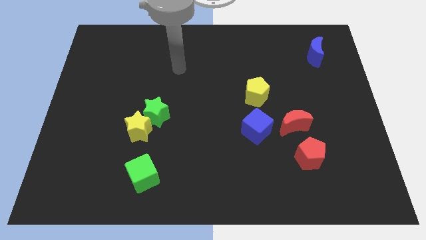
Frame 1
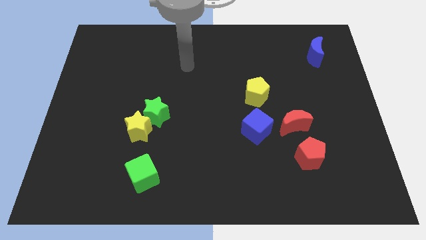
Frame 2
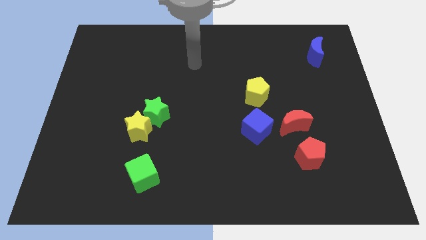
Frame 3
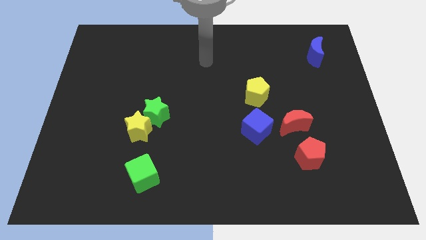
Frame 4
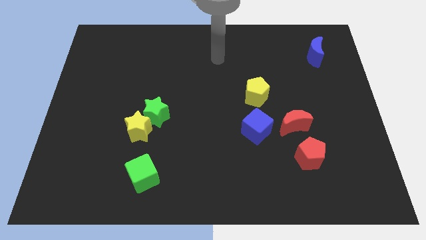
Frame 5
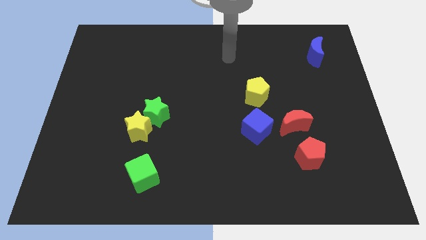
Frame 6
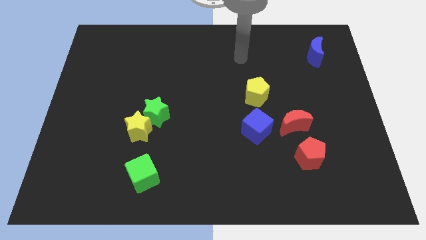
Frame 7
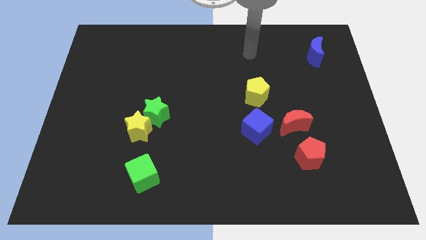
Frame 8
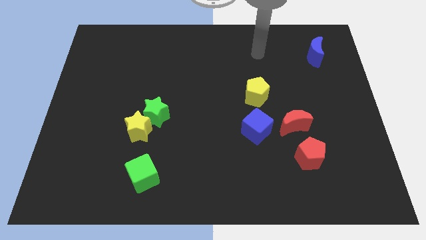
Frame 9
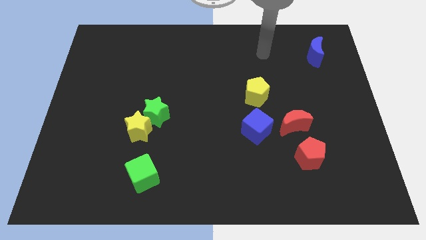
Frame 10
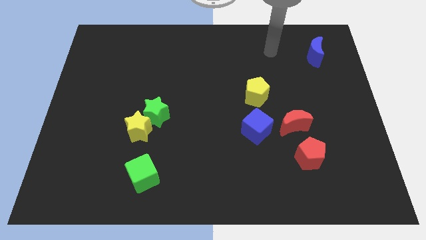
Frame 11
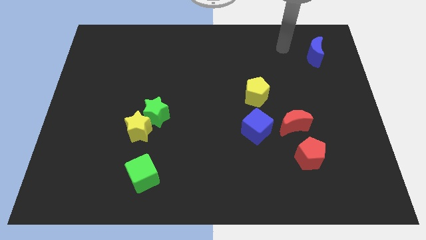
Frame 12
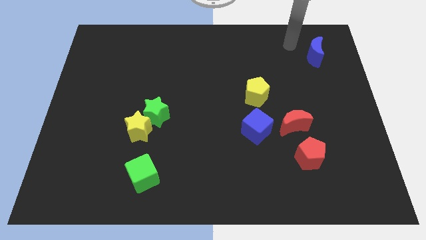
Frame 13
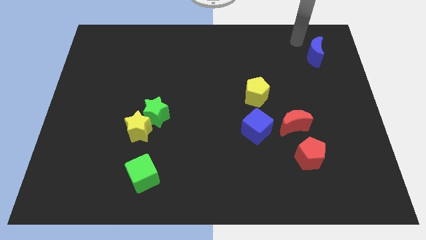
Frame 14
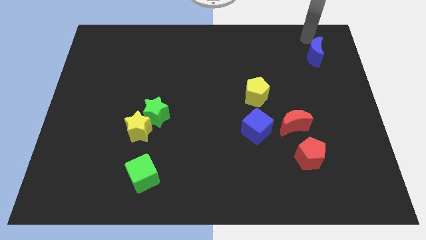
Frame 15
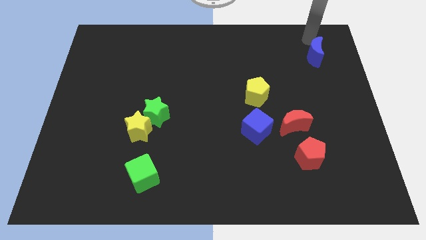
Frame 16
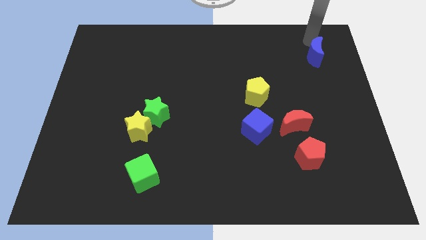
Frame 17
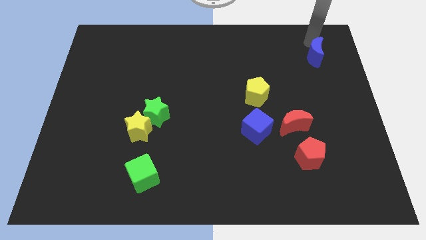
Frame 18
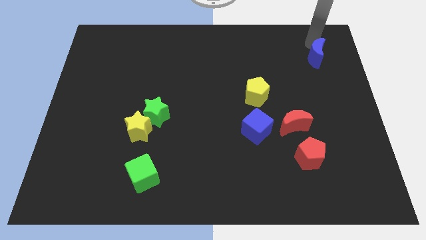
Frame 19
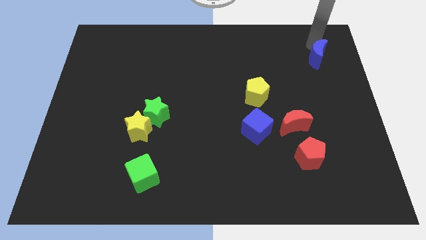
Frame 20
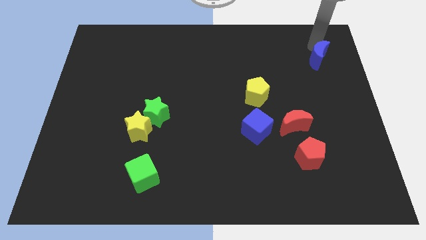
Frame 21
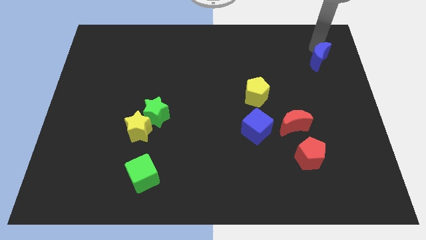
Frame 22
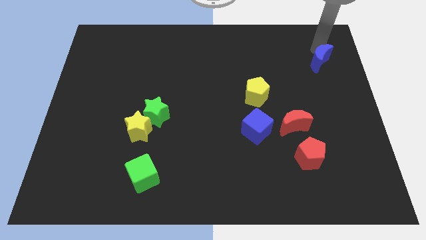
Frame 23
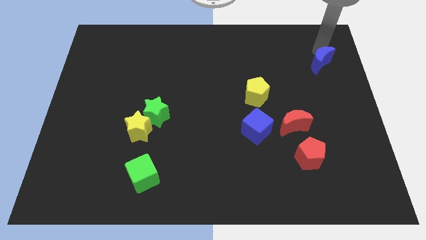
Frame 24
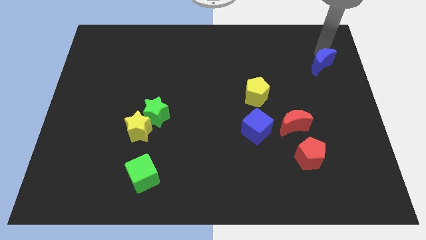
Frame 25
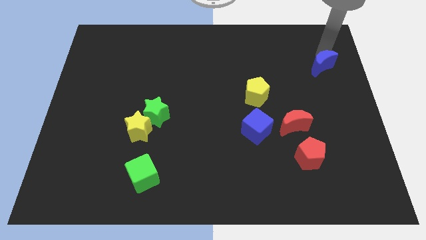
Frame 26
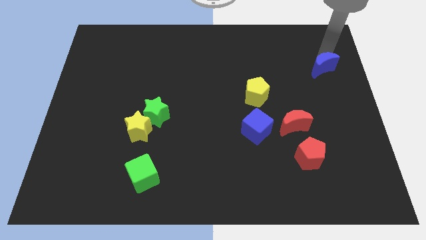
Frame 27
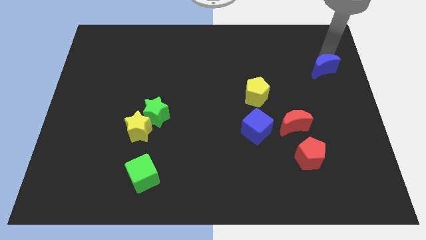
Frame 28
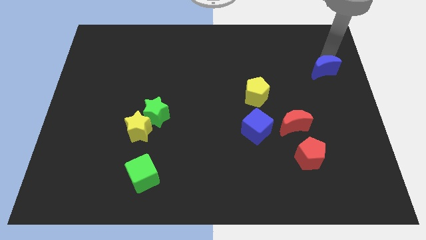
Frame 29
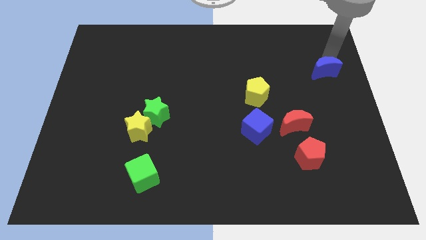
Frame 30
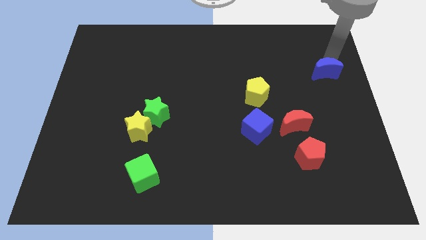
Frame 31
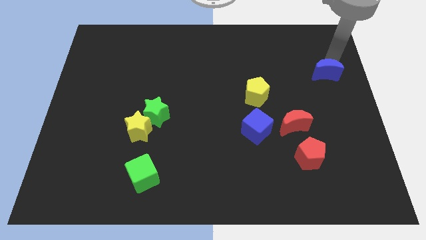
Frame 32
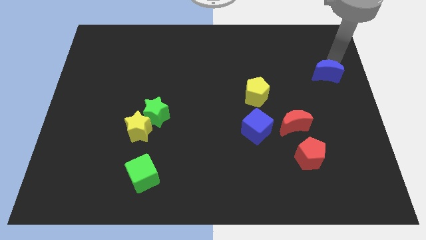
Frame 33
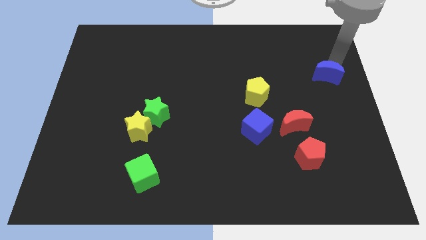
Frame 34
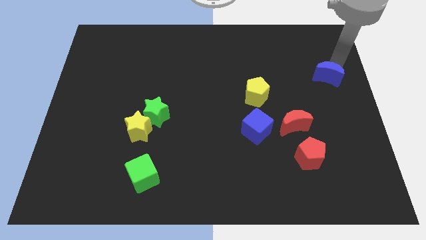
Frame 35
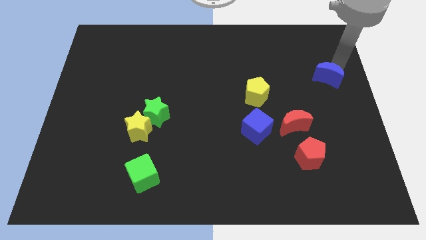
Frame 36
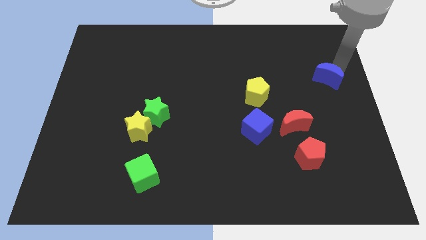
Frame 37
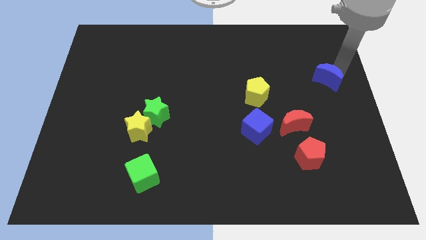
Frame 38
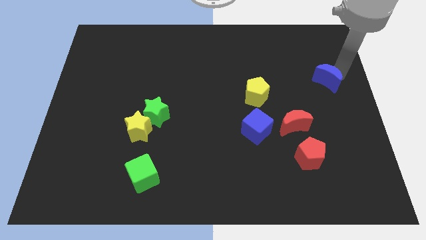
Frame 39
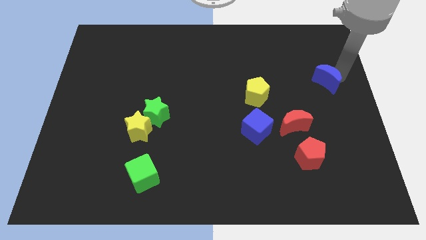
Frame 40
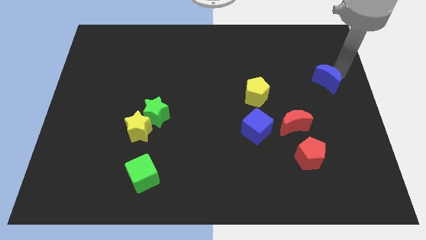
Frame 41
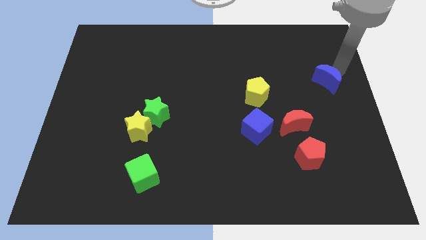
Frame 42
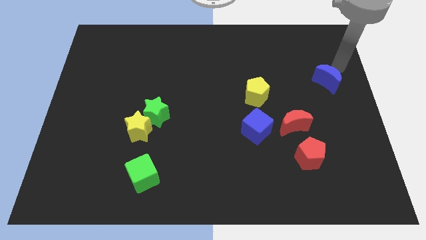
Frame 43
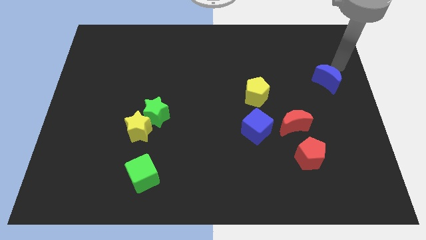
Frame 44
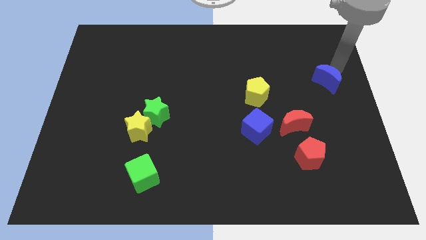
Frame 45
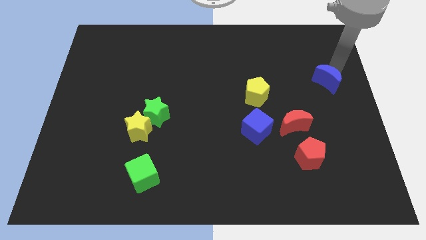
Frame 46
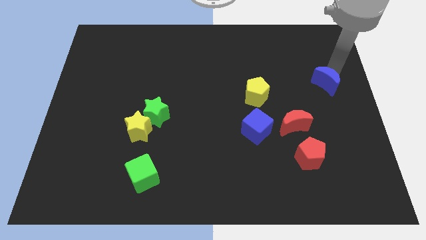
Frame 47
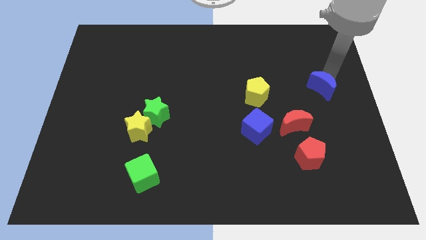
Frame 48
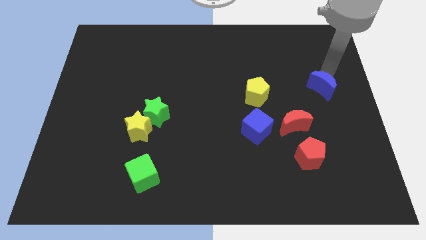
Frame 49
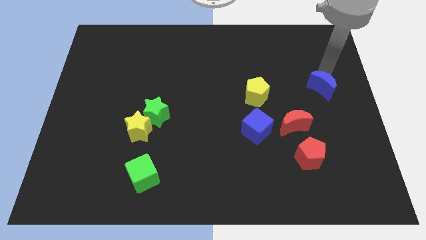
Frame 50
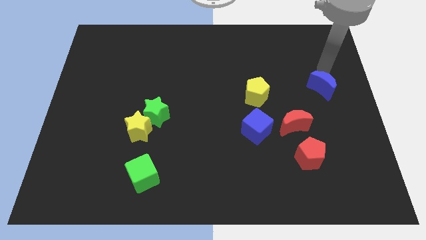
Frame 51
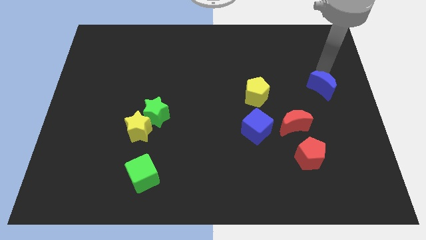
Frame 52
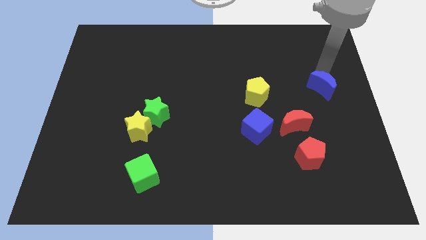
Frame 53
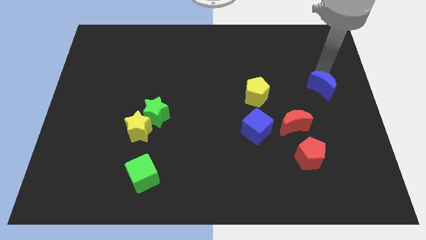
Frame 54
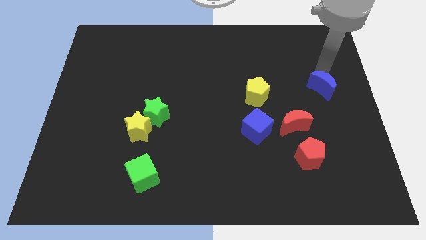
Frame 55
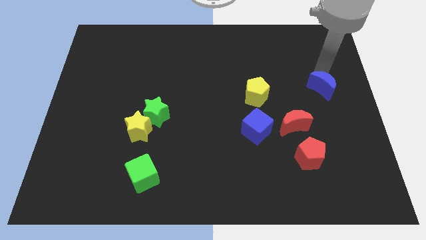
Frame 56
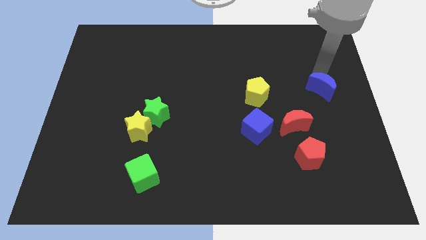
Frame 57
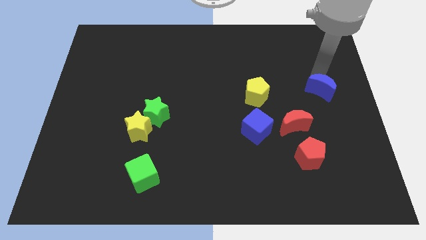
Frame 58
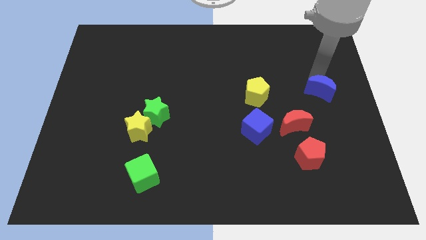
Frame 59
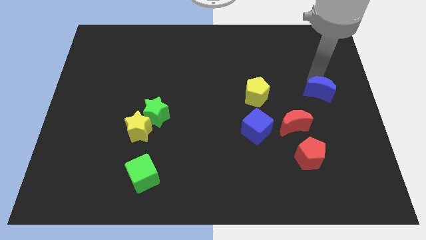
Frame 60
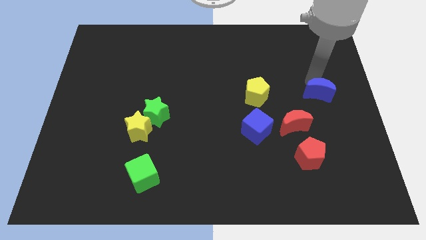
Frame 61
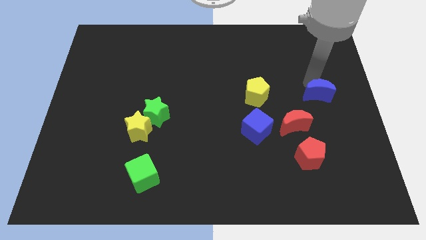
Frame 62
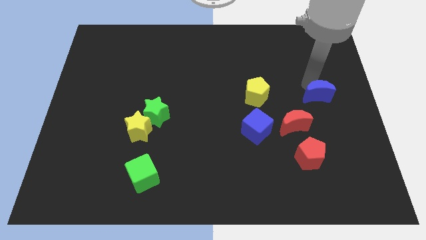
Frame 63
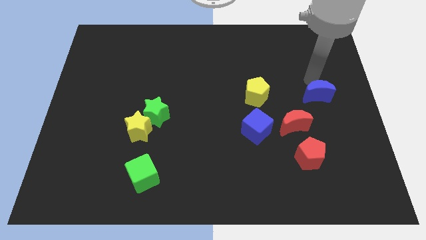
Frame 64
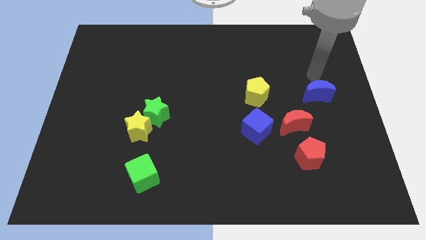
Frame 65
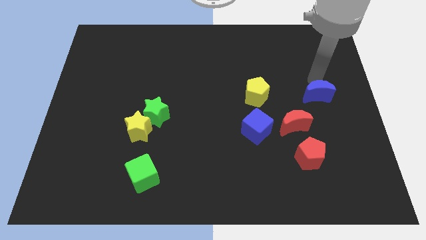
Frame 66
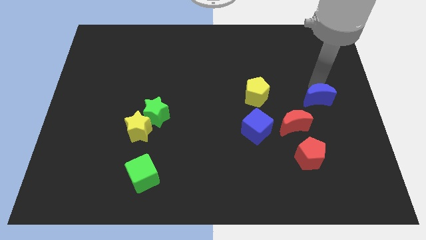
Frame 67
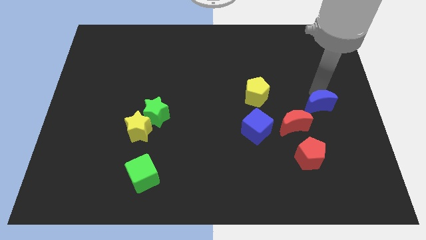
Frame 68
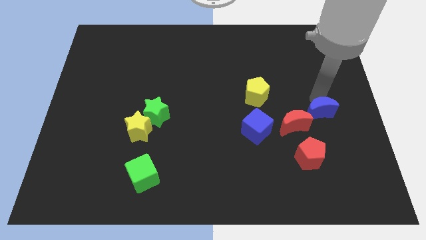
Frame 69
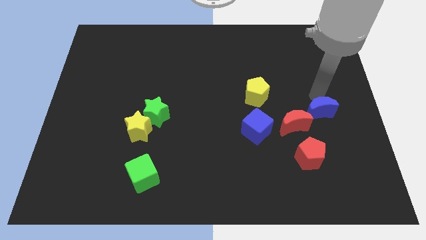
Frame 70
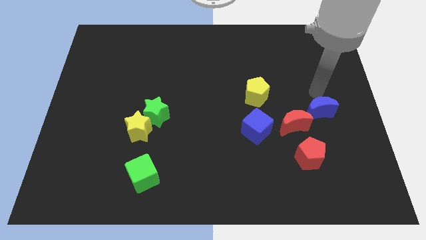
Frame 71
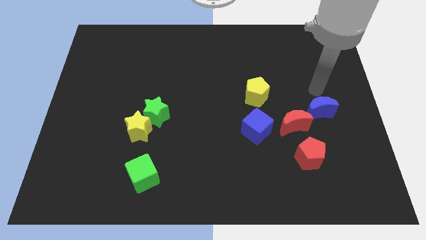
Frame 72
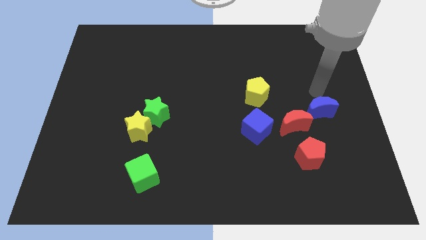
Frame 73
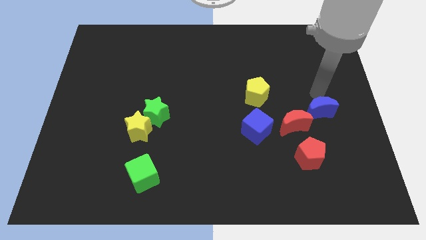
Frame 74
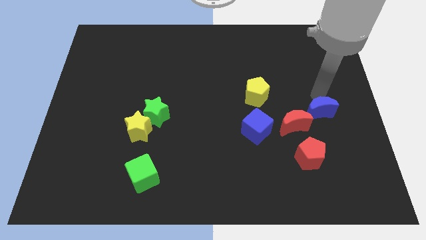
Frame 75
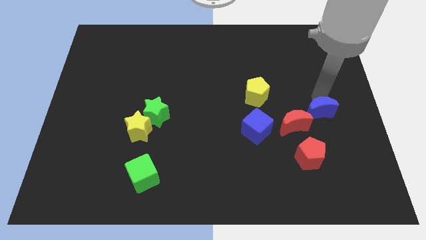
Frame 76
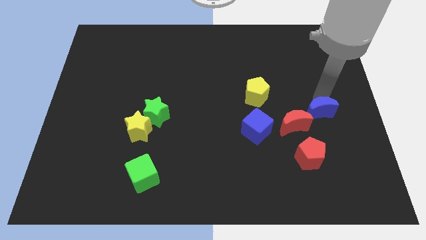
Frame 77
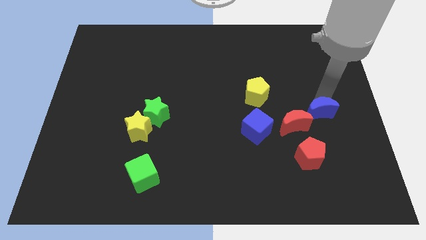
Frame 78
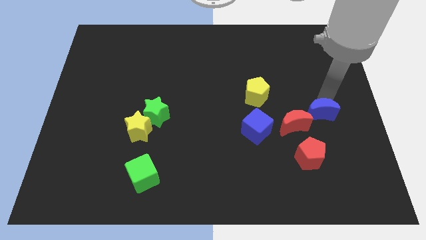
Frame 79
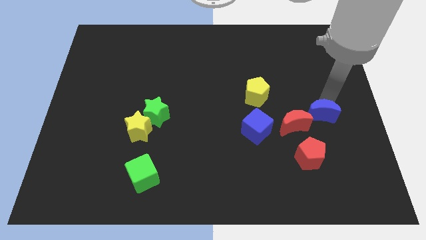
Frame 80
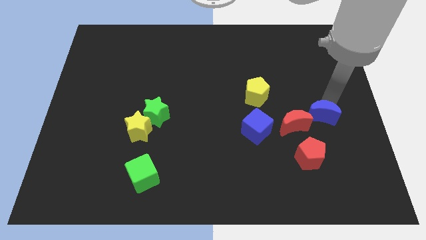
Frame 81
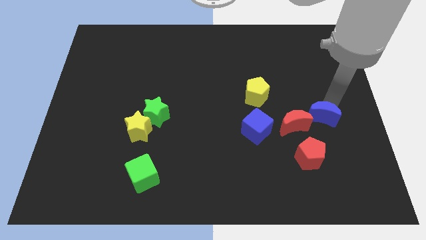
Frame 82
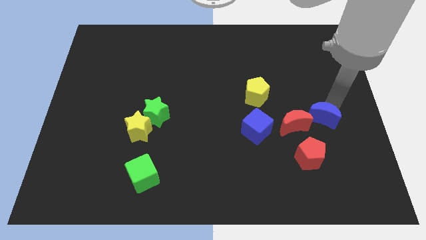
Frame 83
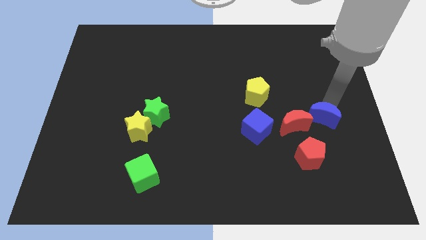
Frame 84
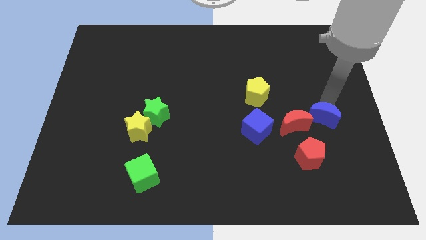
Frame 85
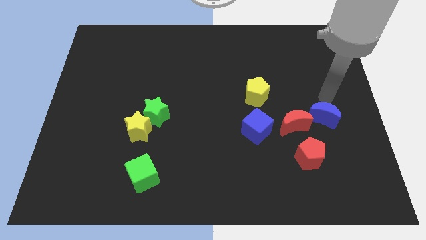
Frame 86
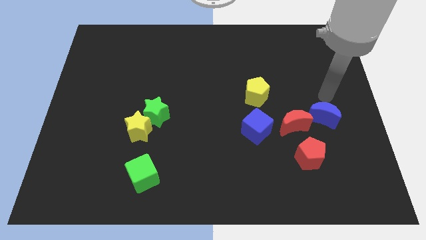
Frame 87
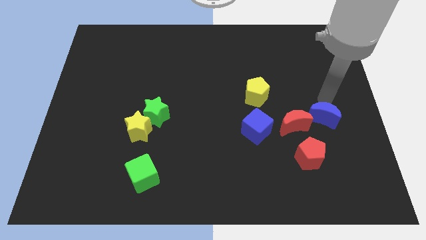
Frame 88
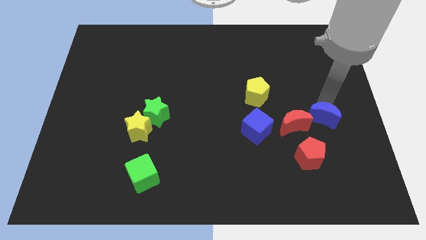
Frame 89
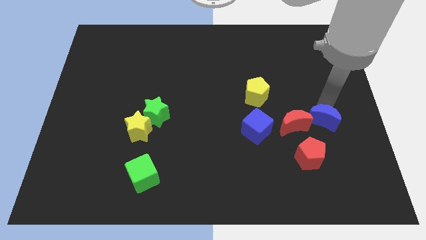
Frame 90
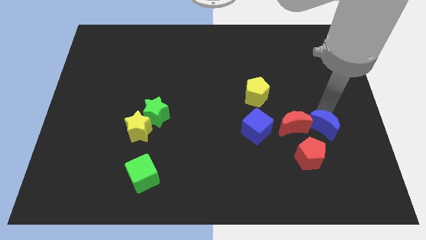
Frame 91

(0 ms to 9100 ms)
put the blue moon diagonally down and to the right of the red moon
